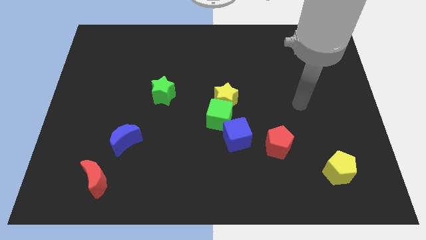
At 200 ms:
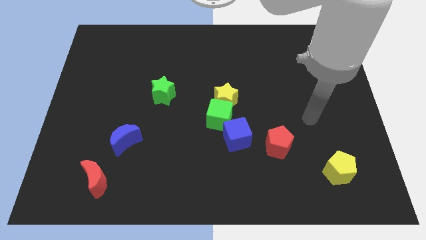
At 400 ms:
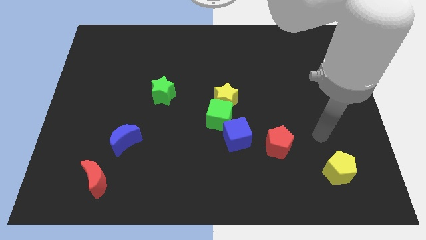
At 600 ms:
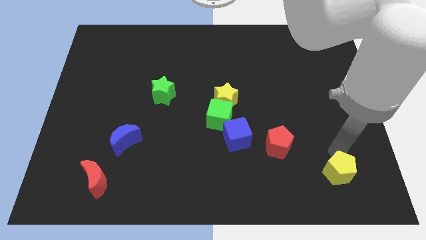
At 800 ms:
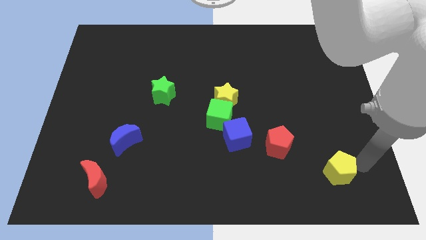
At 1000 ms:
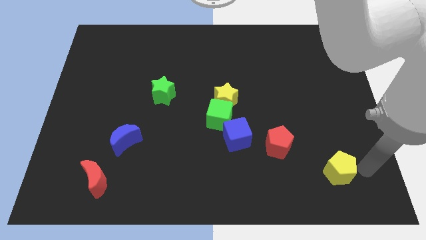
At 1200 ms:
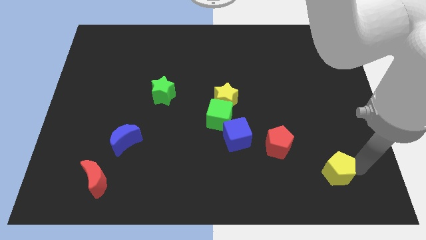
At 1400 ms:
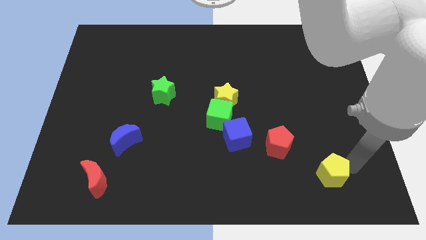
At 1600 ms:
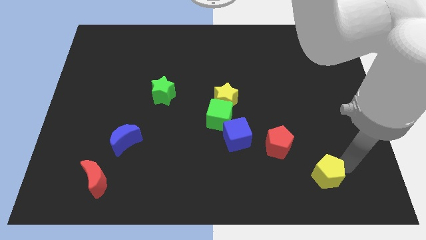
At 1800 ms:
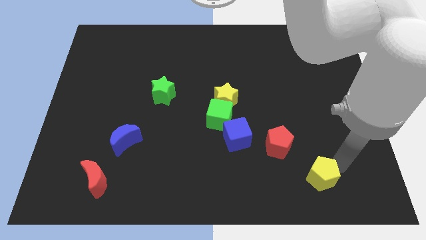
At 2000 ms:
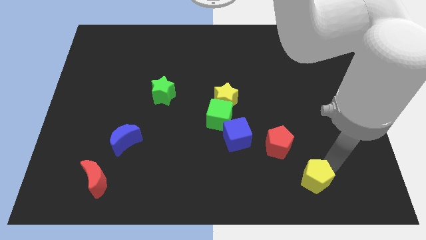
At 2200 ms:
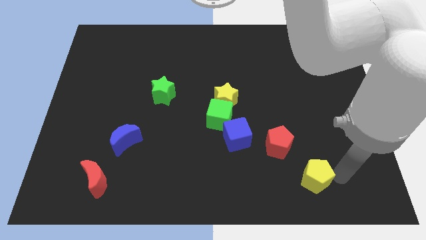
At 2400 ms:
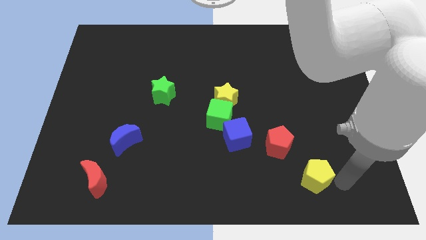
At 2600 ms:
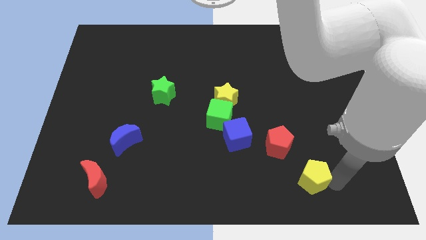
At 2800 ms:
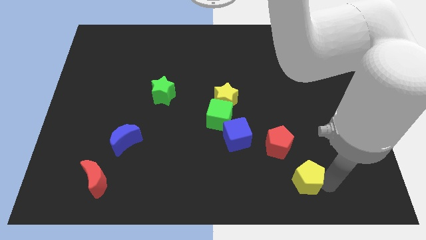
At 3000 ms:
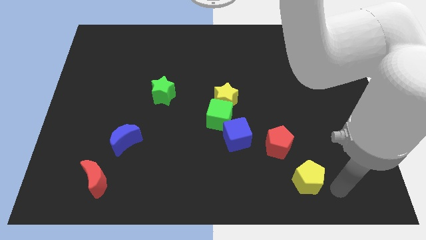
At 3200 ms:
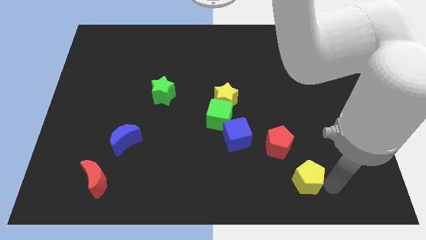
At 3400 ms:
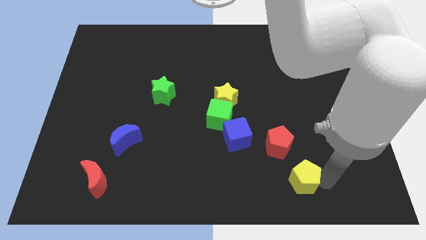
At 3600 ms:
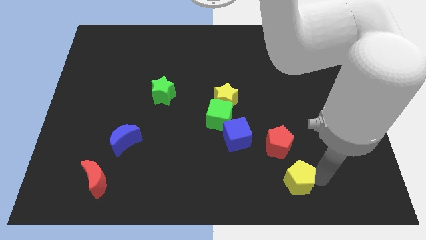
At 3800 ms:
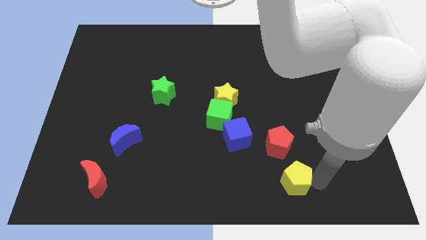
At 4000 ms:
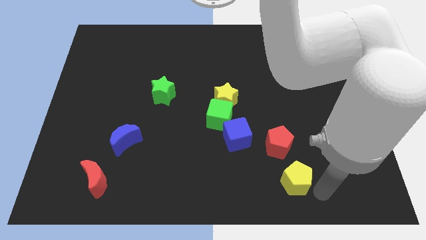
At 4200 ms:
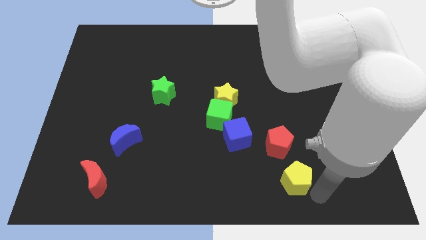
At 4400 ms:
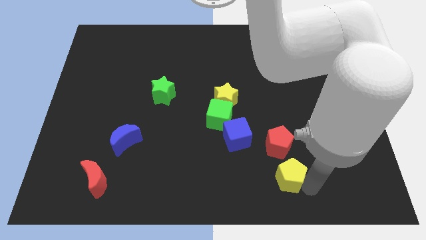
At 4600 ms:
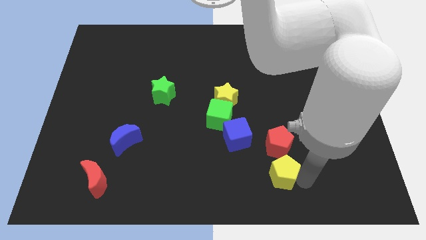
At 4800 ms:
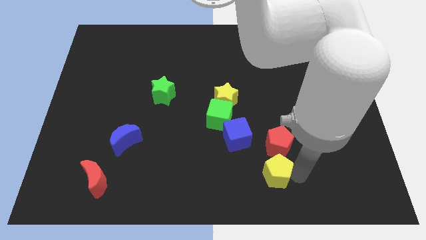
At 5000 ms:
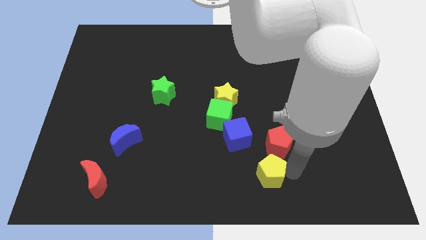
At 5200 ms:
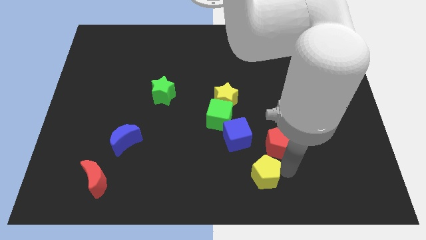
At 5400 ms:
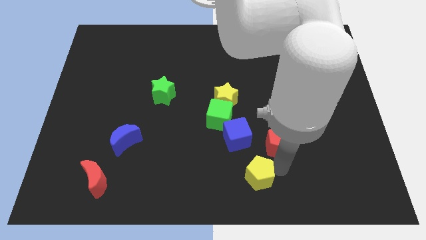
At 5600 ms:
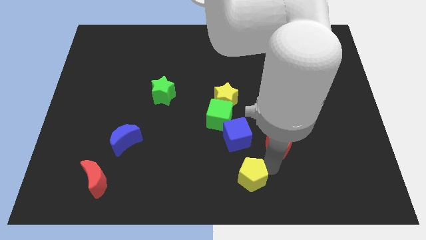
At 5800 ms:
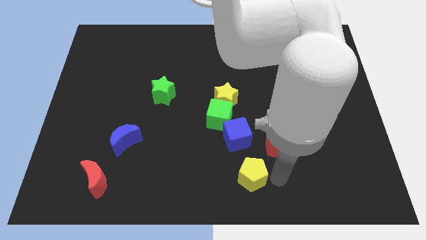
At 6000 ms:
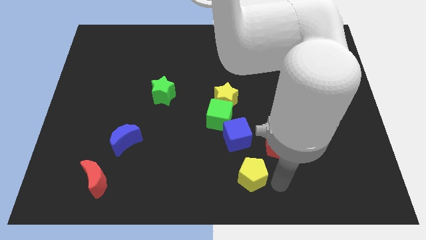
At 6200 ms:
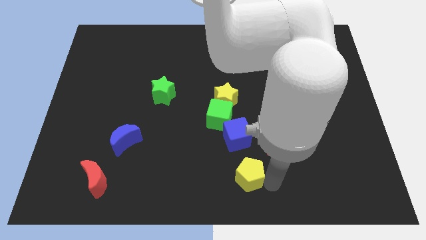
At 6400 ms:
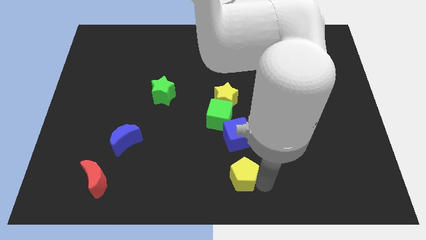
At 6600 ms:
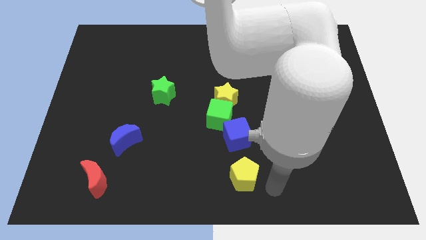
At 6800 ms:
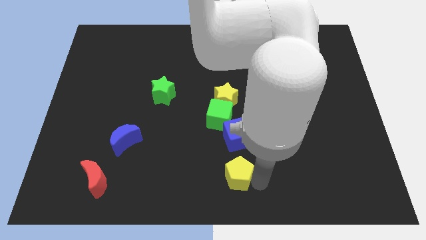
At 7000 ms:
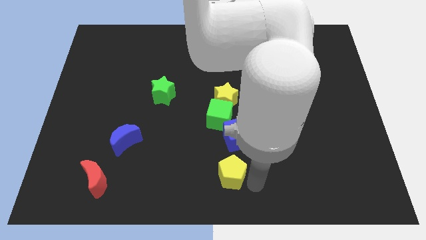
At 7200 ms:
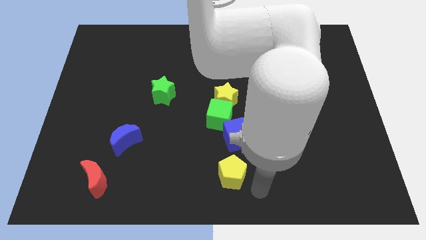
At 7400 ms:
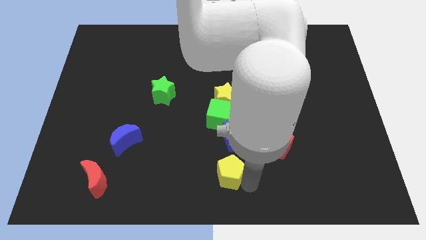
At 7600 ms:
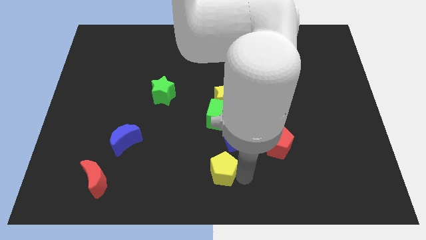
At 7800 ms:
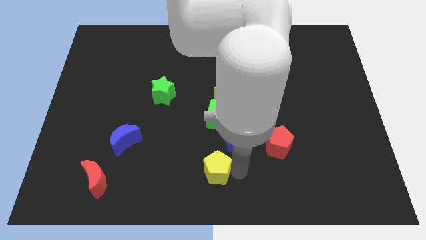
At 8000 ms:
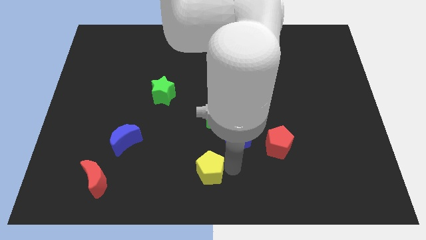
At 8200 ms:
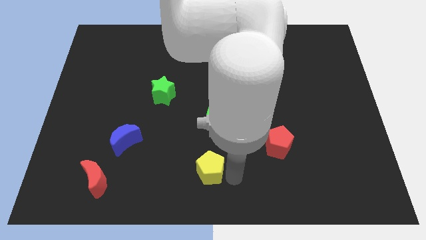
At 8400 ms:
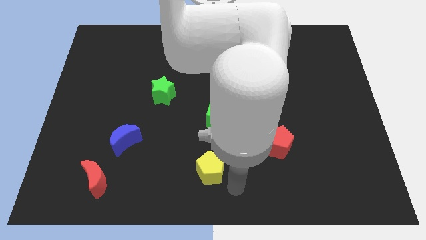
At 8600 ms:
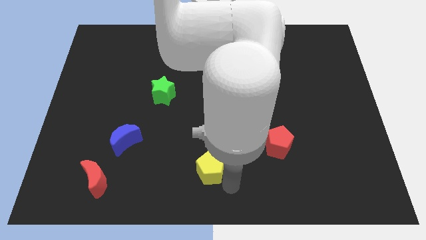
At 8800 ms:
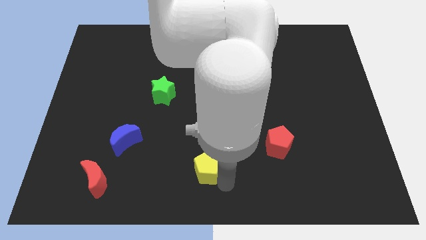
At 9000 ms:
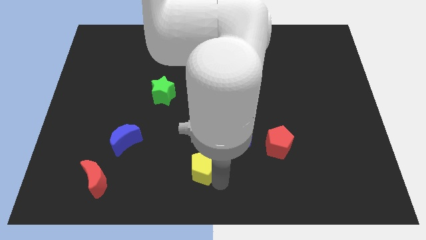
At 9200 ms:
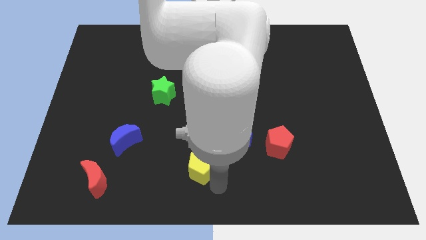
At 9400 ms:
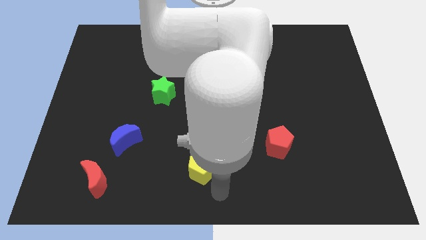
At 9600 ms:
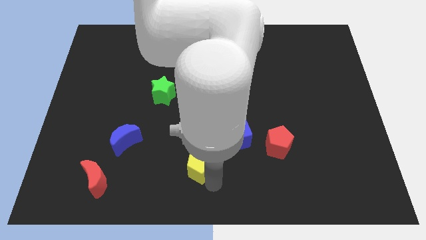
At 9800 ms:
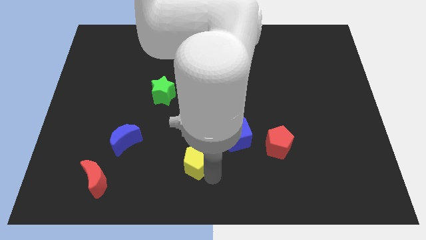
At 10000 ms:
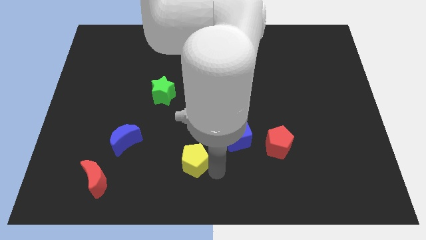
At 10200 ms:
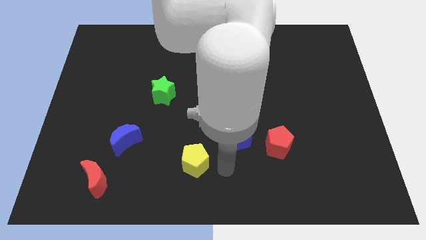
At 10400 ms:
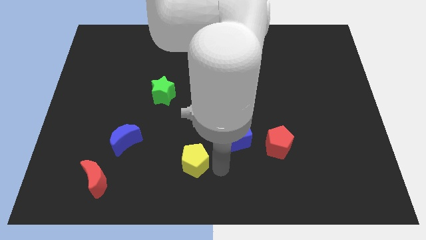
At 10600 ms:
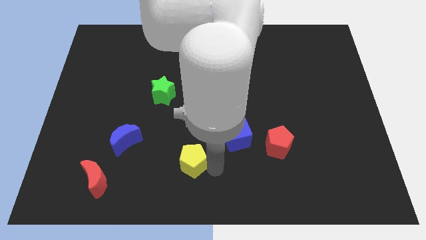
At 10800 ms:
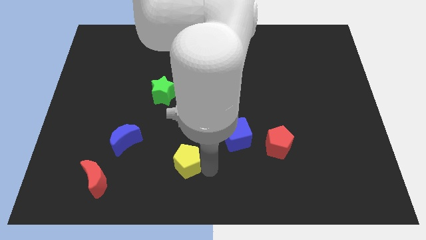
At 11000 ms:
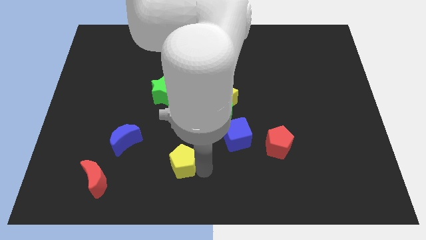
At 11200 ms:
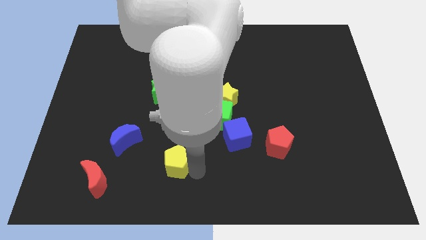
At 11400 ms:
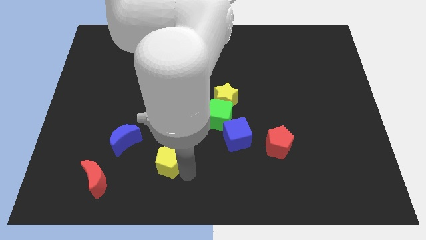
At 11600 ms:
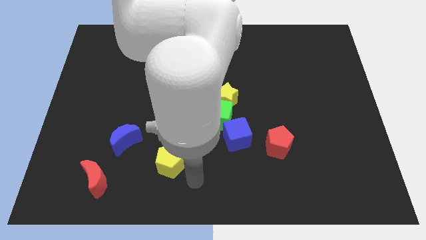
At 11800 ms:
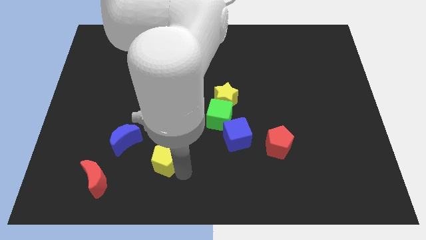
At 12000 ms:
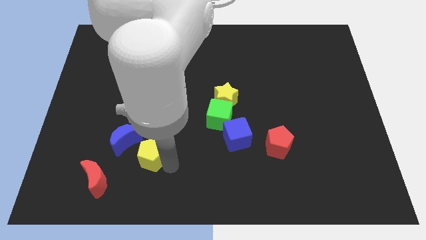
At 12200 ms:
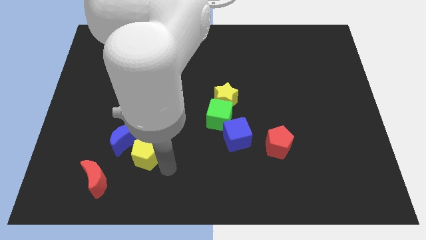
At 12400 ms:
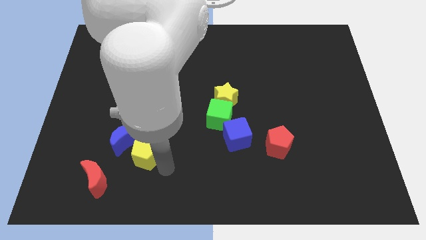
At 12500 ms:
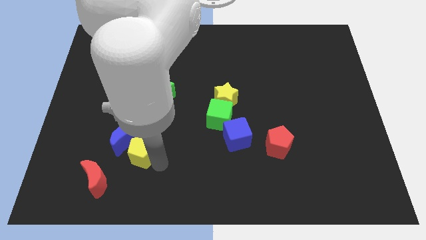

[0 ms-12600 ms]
push the yellow pentagon to the blue moon
